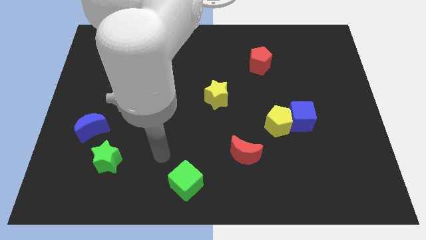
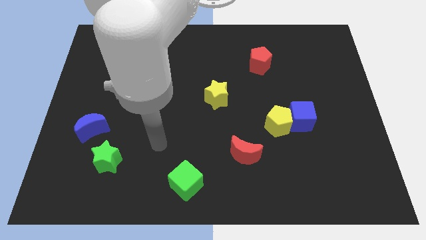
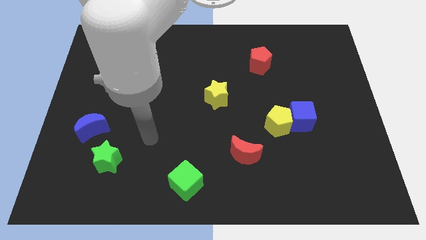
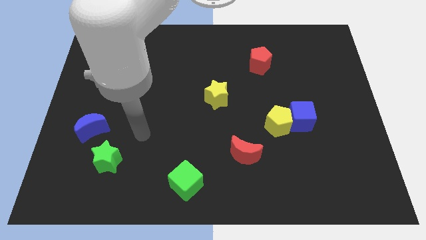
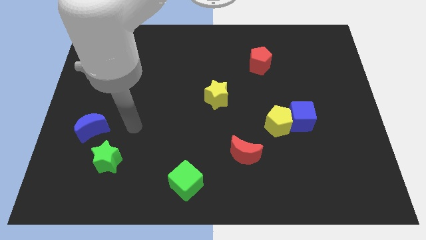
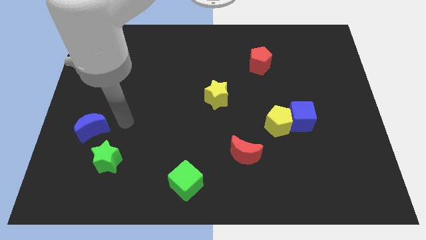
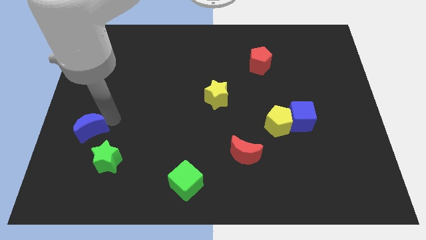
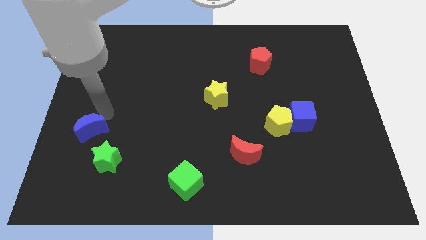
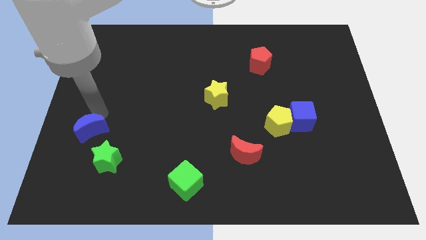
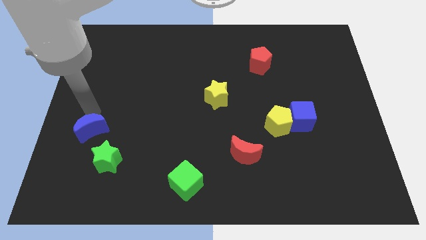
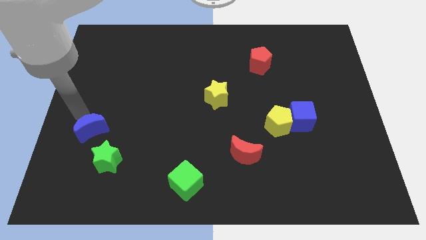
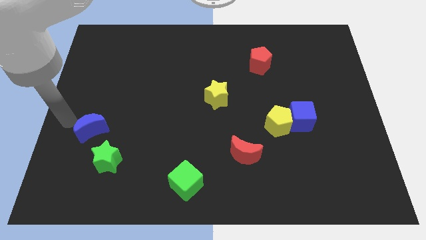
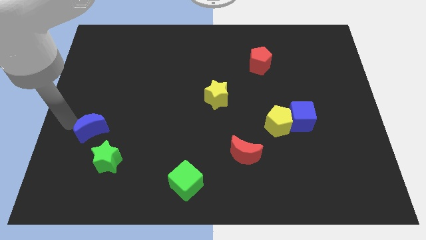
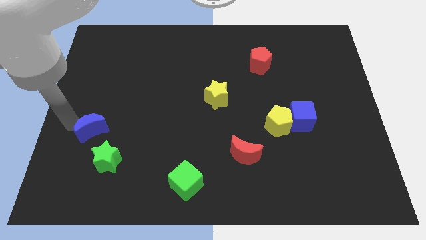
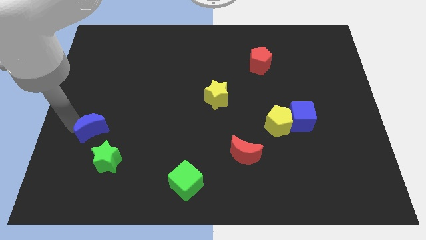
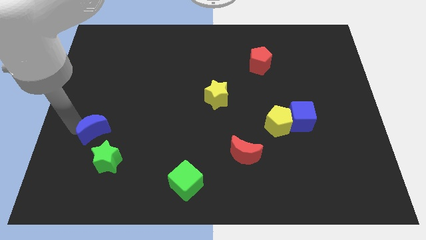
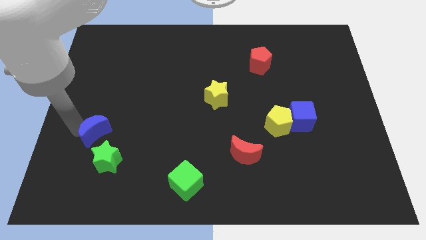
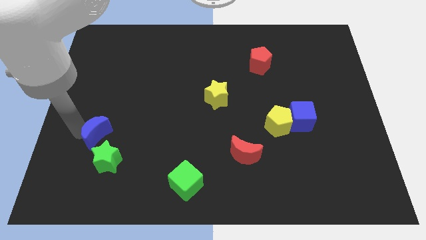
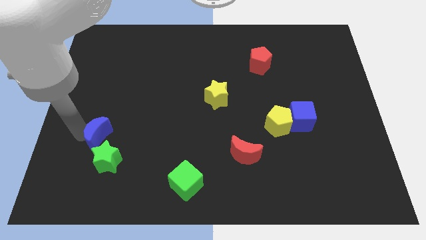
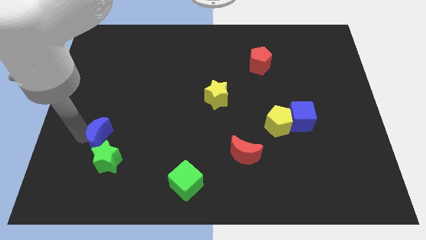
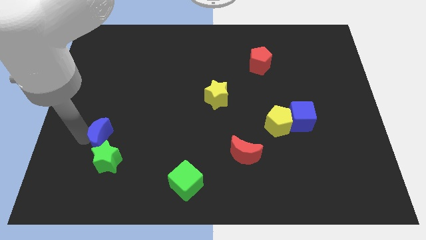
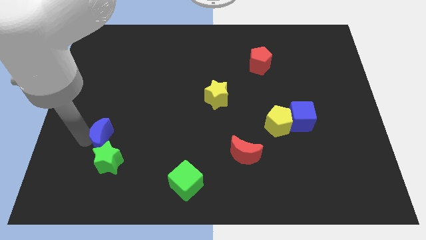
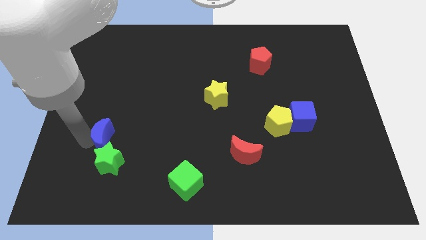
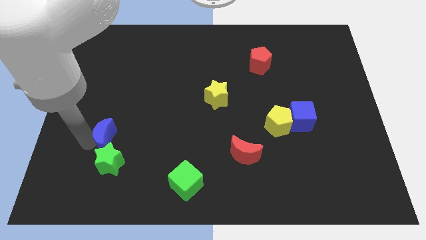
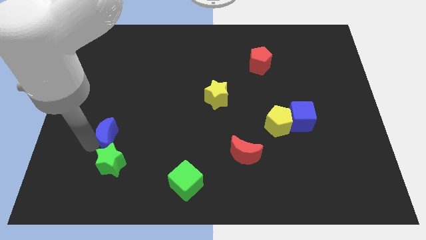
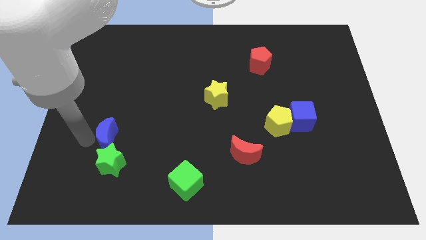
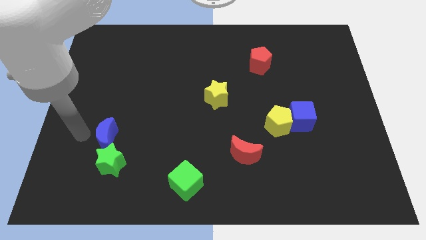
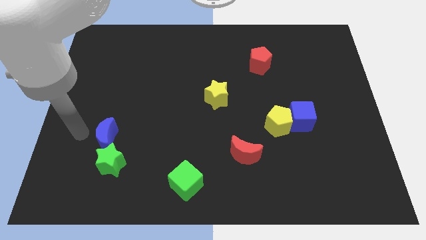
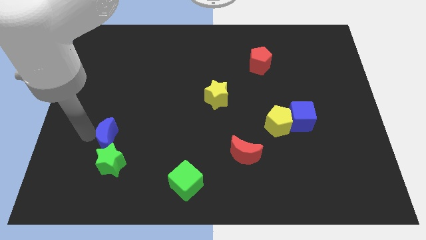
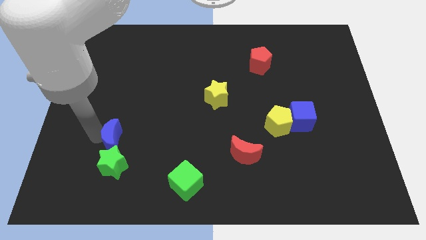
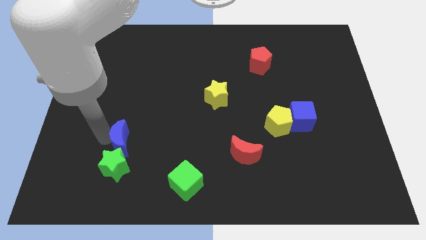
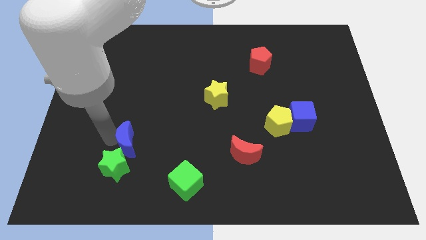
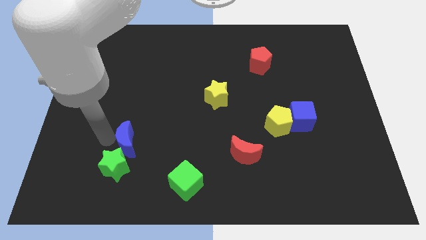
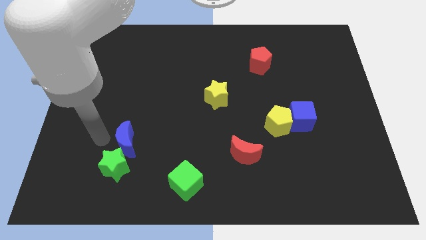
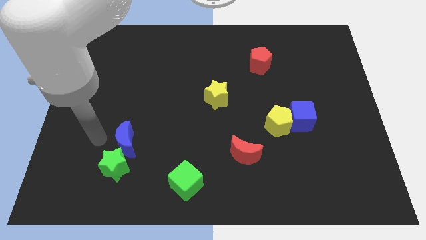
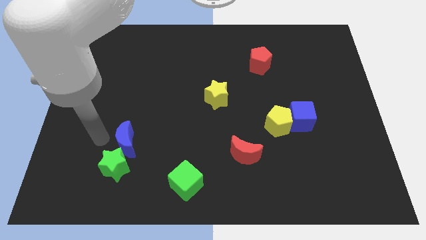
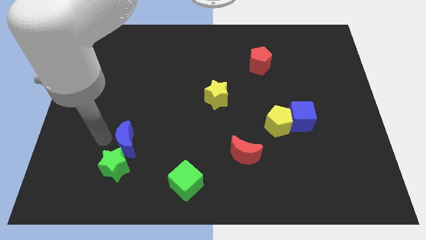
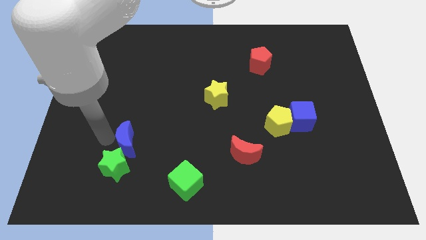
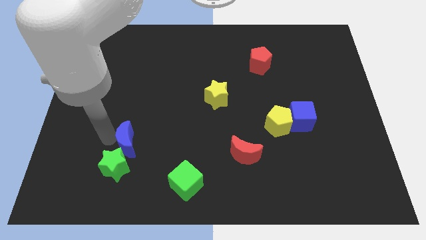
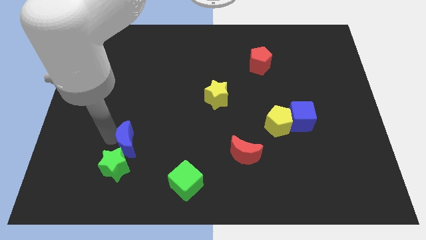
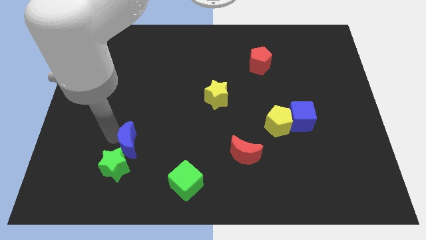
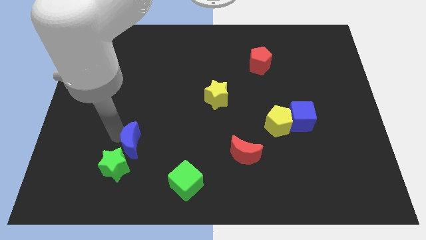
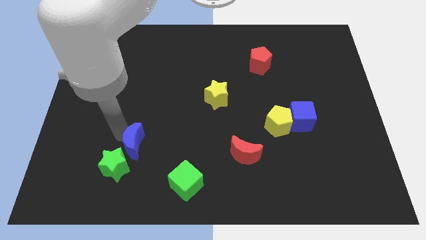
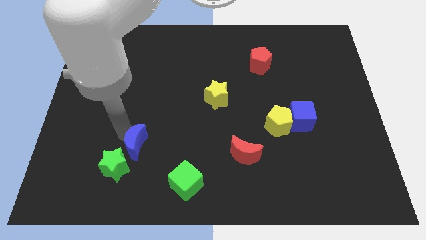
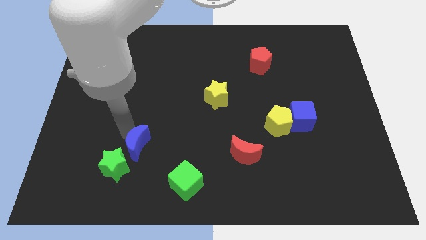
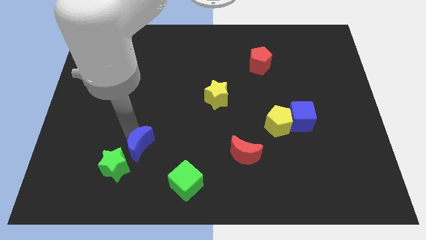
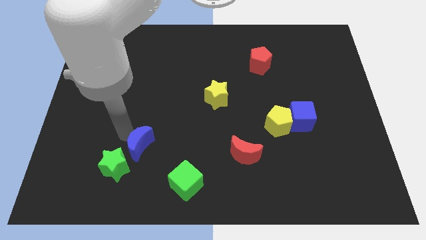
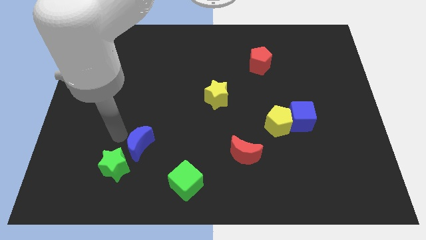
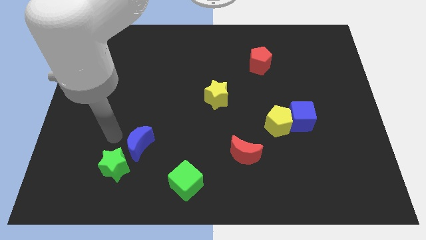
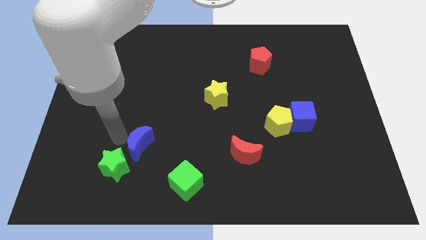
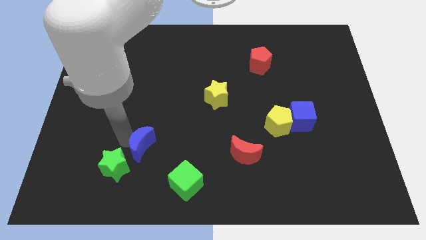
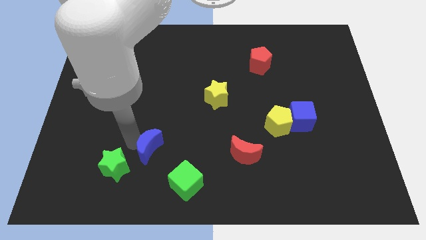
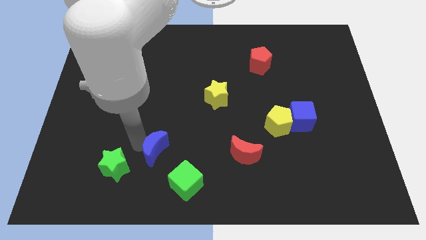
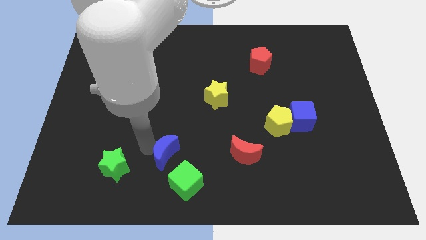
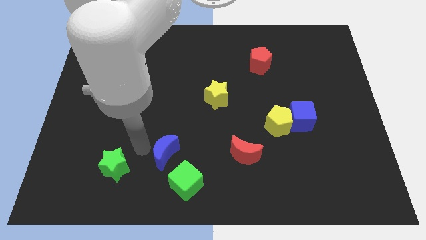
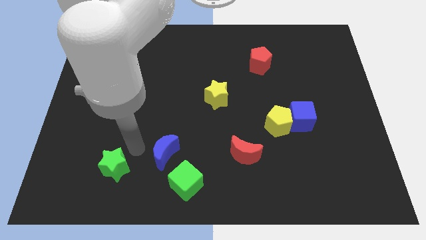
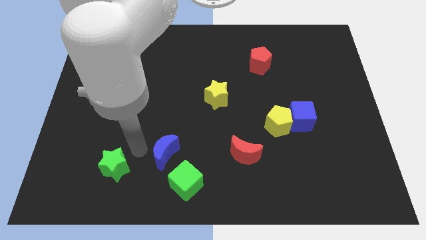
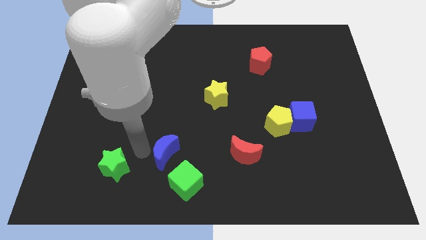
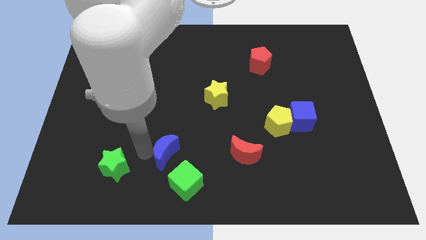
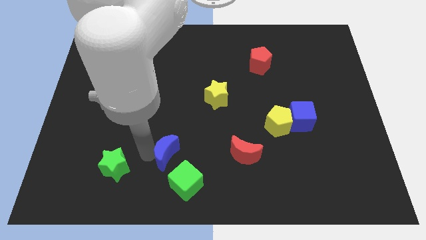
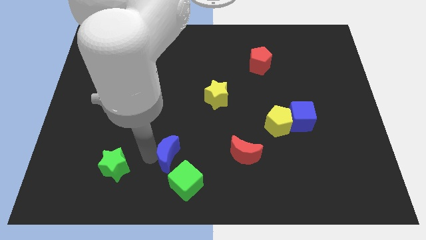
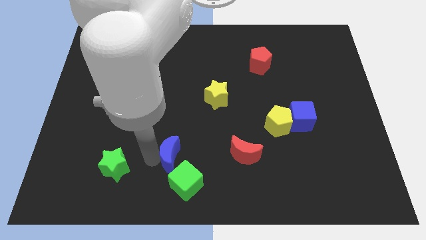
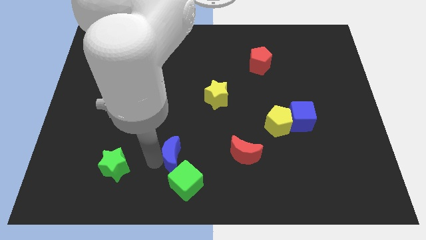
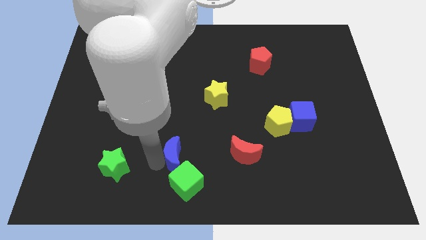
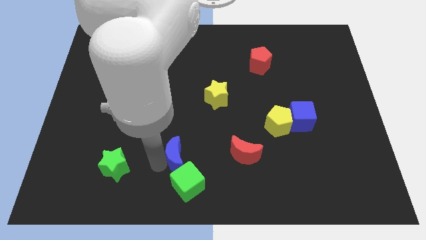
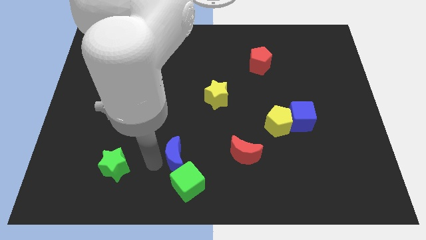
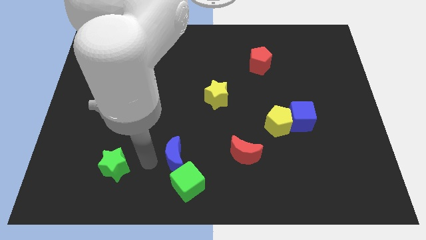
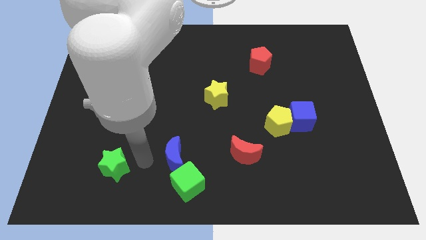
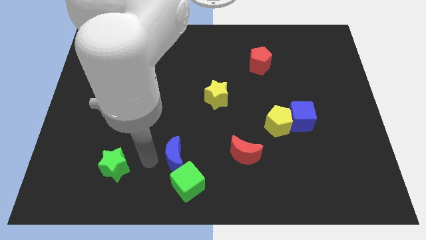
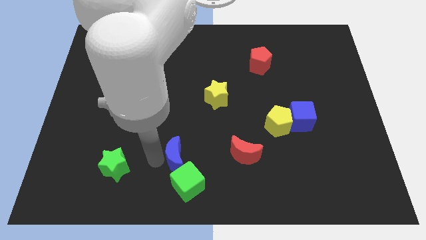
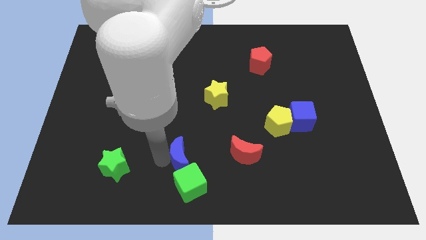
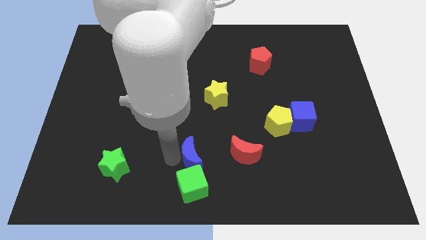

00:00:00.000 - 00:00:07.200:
slide the blue moon to the top right side of the green cube

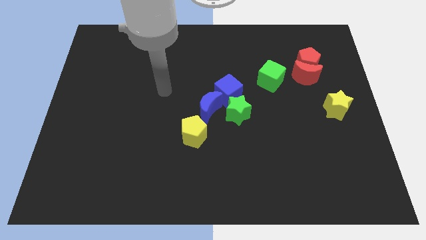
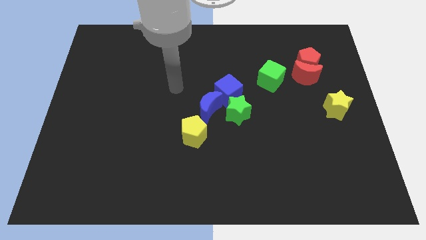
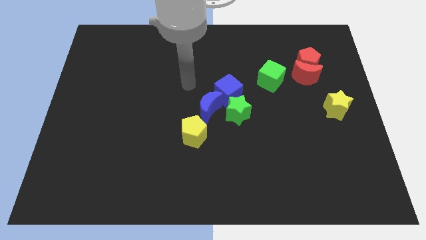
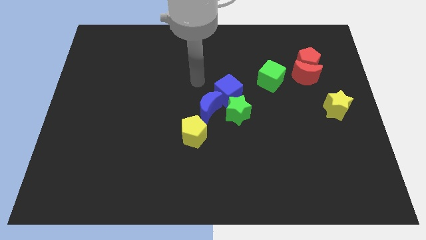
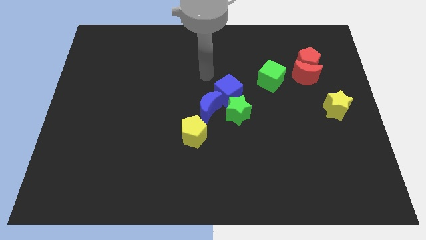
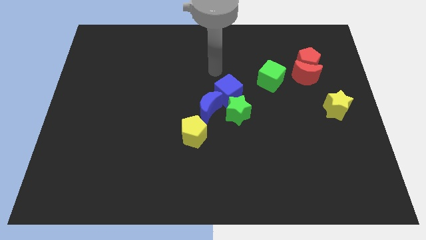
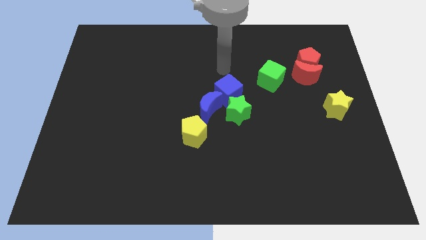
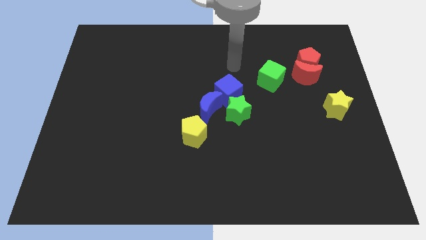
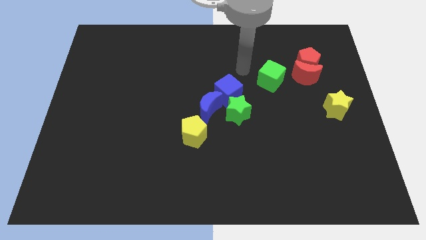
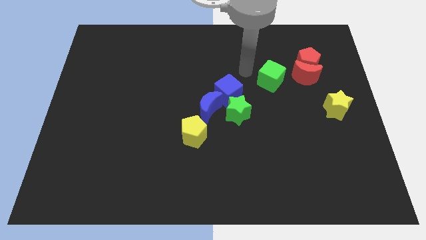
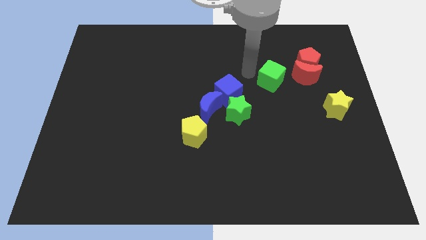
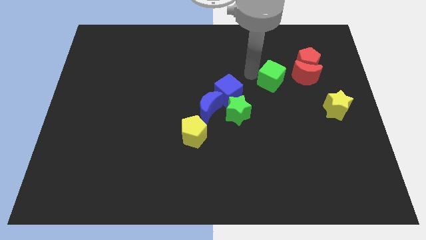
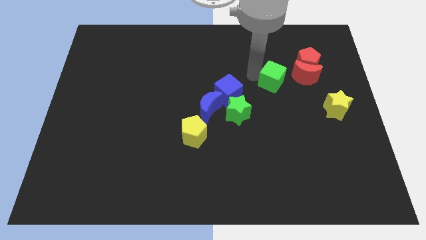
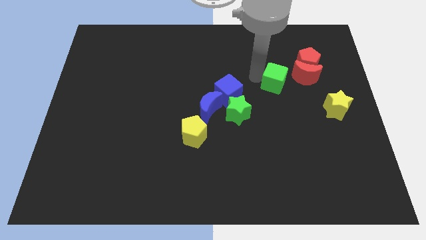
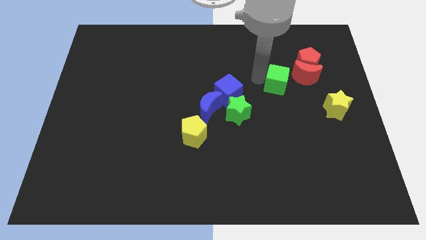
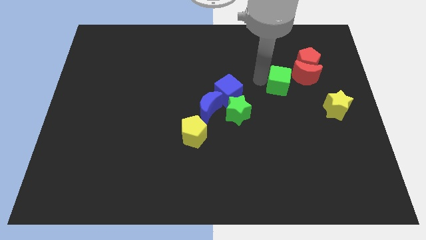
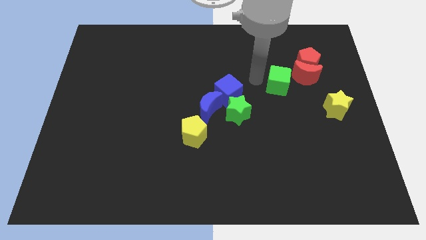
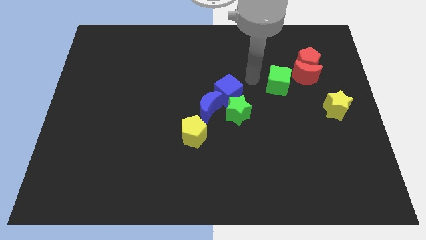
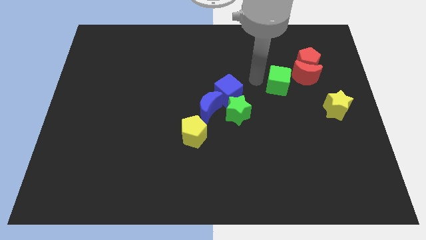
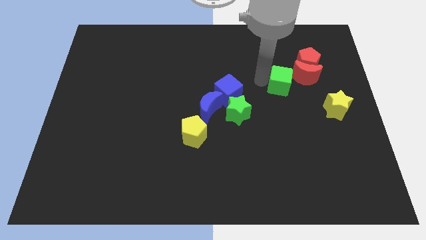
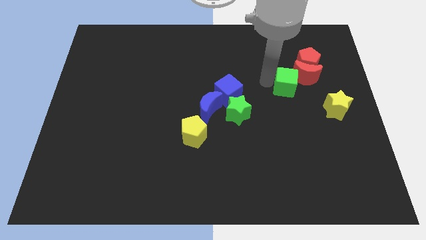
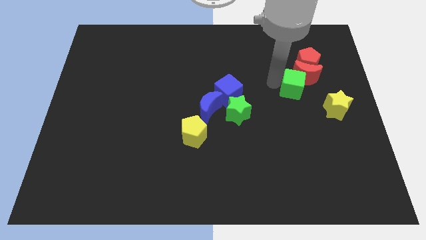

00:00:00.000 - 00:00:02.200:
push the green cube diagonally up and to the left of the yellow star
